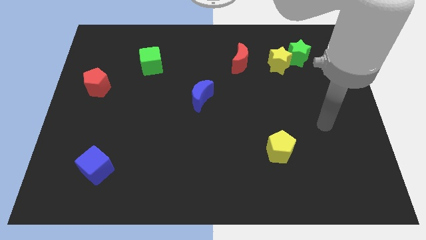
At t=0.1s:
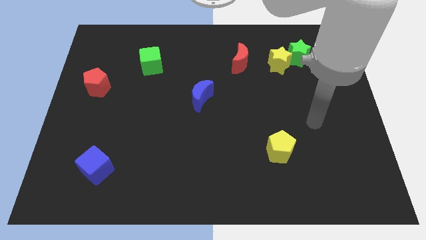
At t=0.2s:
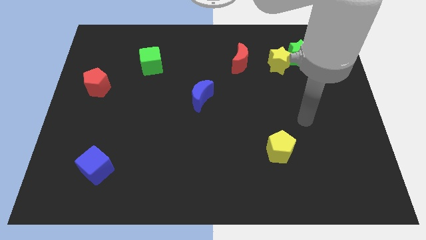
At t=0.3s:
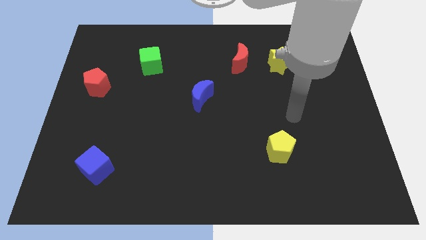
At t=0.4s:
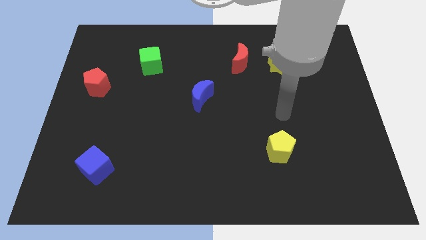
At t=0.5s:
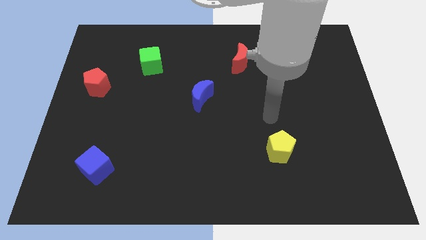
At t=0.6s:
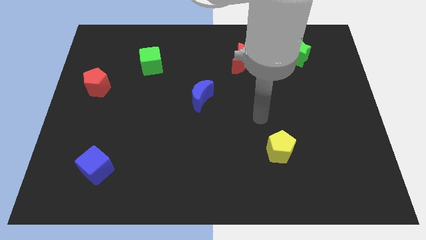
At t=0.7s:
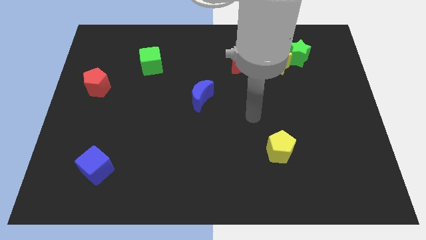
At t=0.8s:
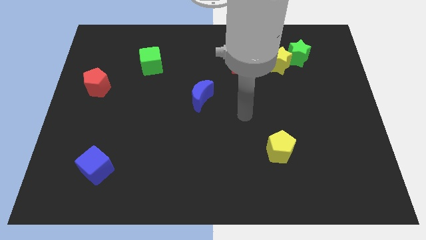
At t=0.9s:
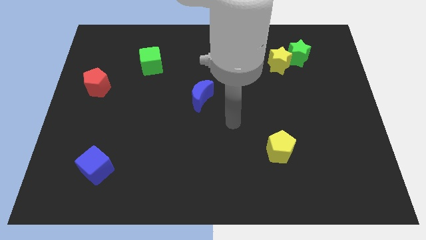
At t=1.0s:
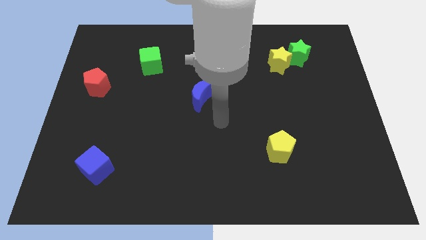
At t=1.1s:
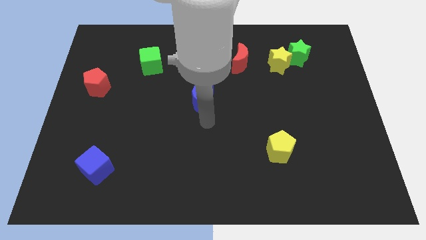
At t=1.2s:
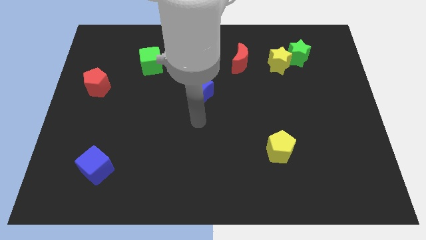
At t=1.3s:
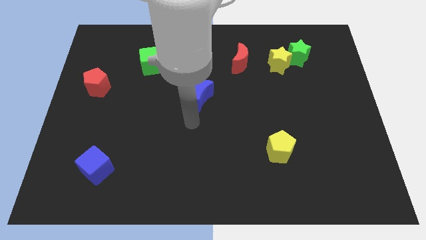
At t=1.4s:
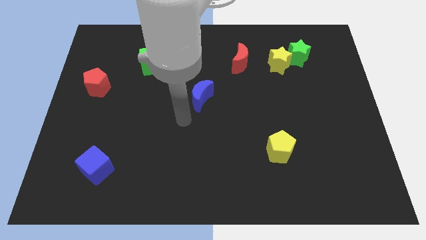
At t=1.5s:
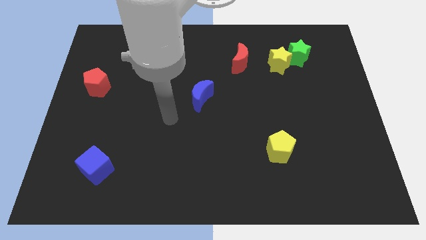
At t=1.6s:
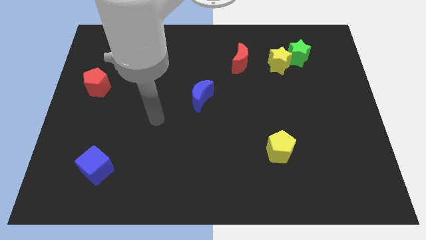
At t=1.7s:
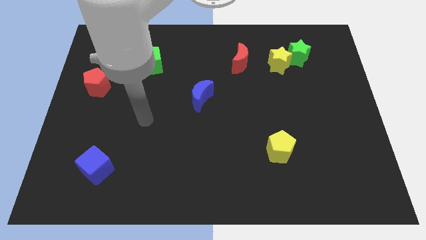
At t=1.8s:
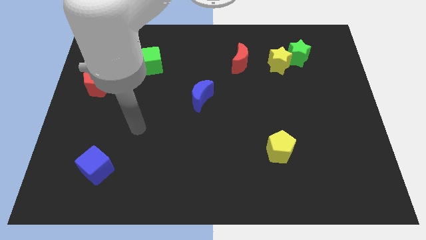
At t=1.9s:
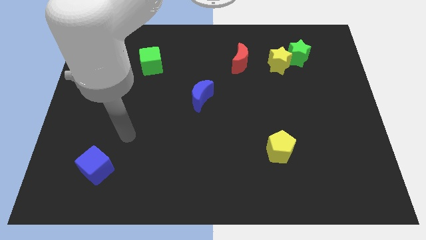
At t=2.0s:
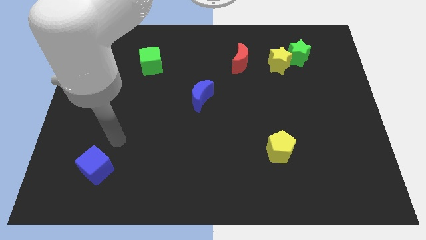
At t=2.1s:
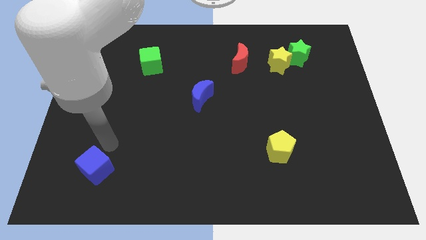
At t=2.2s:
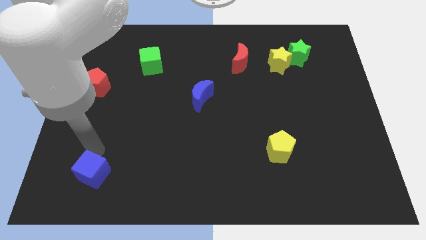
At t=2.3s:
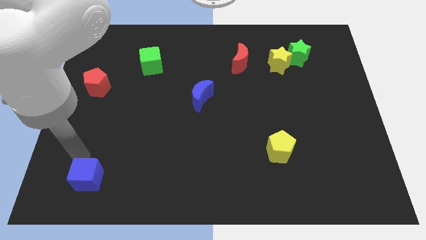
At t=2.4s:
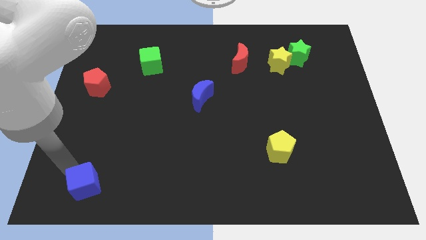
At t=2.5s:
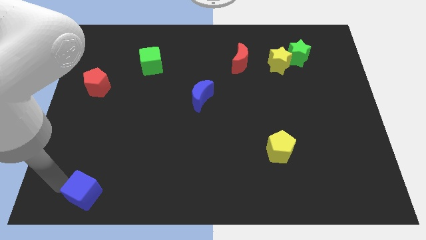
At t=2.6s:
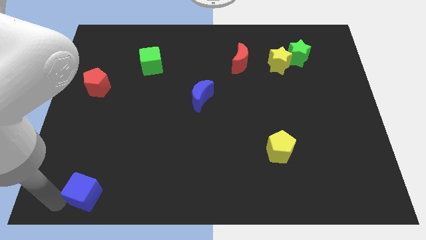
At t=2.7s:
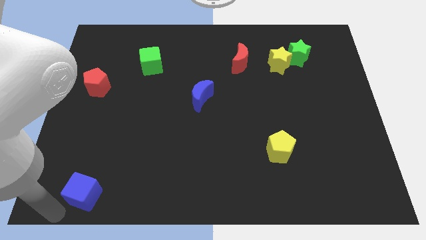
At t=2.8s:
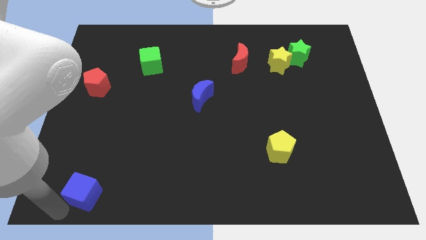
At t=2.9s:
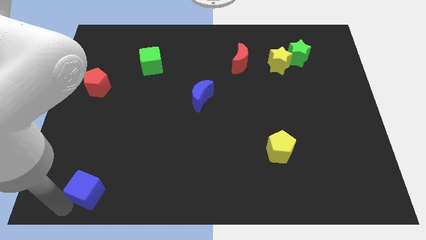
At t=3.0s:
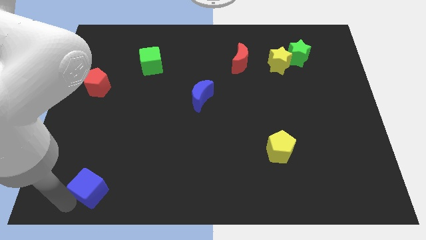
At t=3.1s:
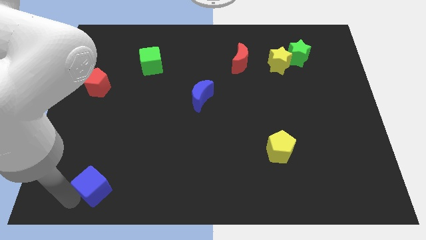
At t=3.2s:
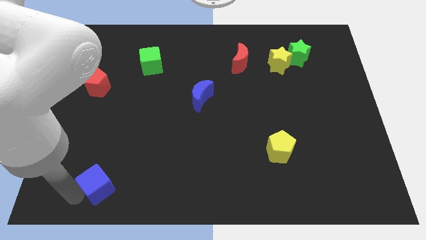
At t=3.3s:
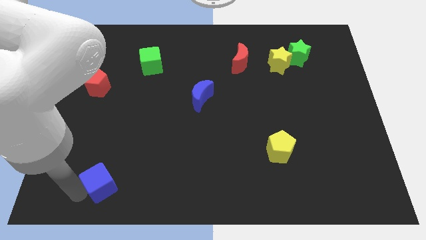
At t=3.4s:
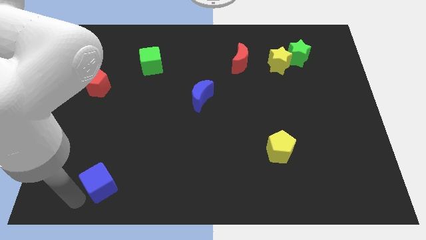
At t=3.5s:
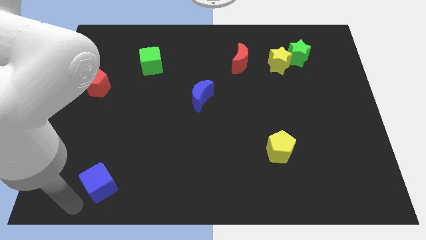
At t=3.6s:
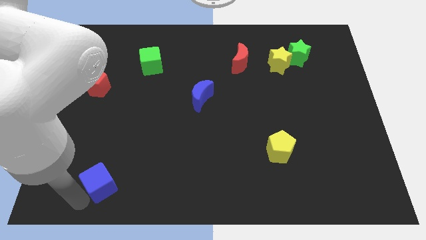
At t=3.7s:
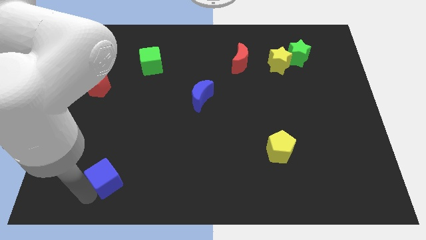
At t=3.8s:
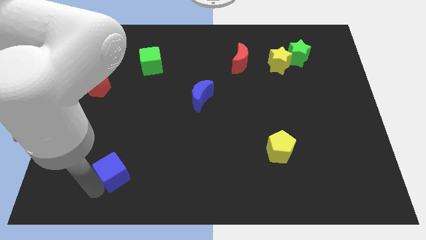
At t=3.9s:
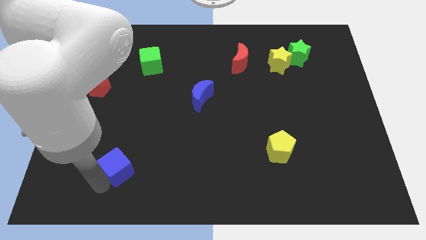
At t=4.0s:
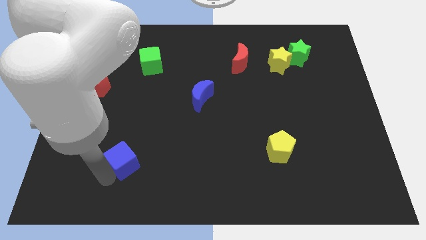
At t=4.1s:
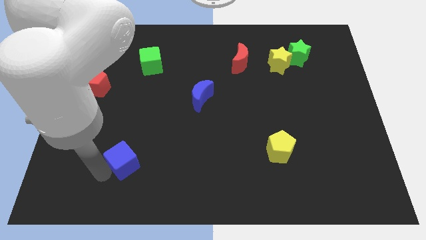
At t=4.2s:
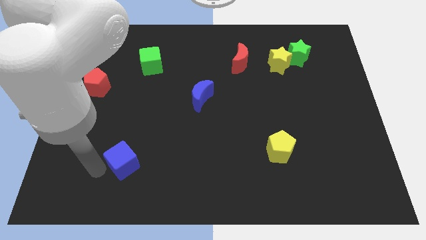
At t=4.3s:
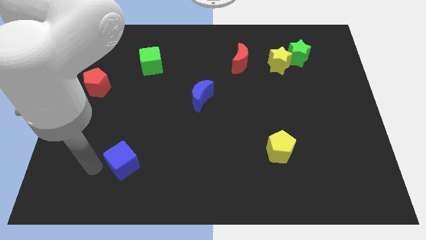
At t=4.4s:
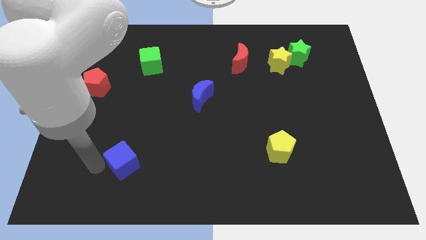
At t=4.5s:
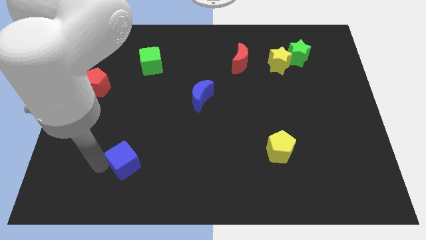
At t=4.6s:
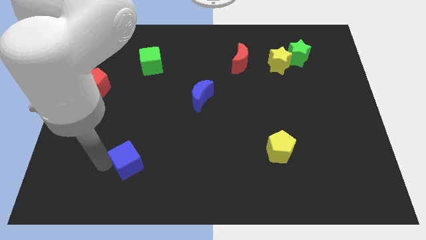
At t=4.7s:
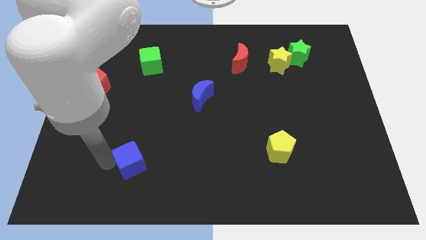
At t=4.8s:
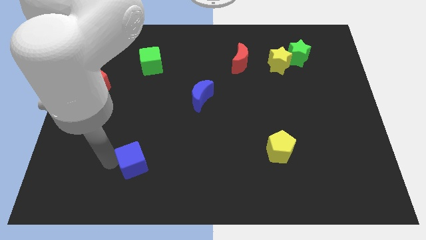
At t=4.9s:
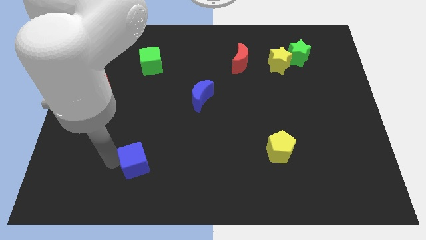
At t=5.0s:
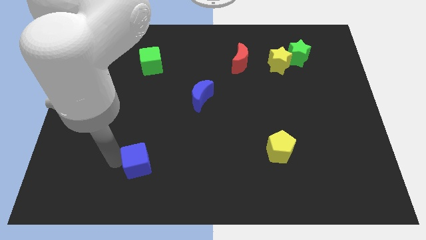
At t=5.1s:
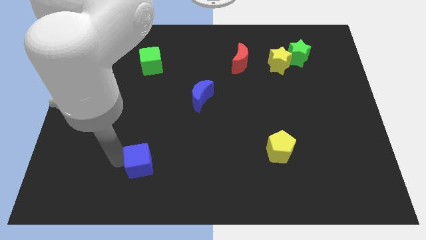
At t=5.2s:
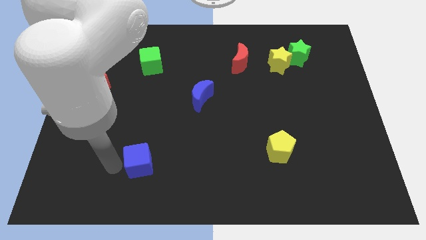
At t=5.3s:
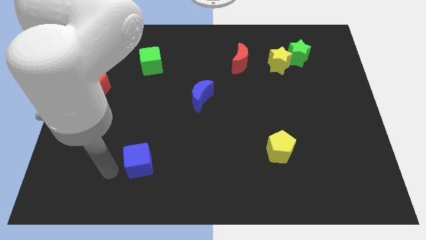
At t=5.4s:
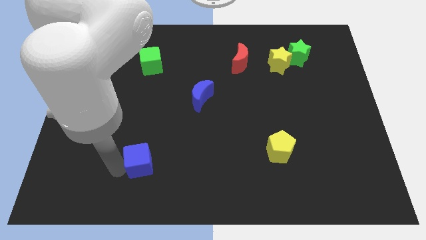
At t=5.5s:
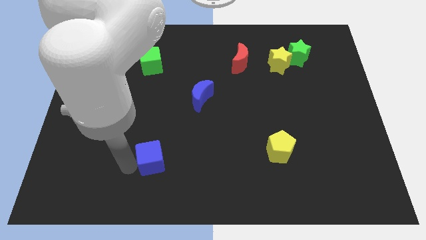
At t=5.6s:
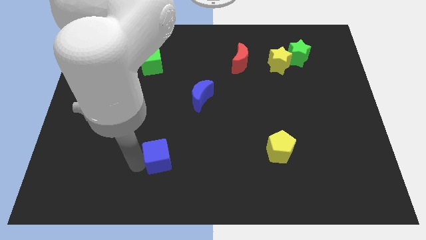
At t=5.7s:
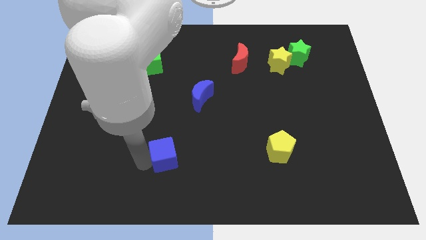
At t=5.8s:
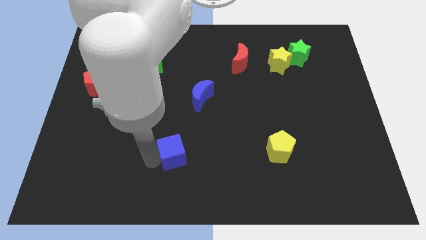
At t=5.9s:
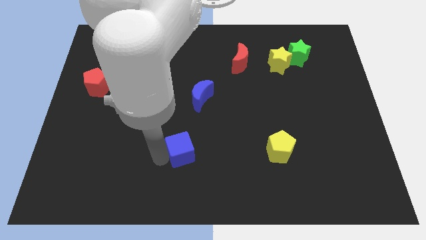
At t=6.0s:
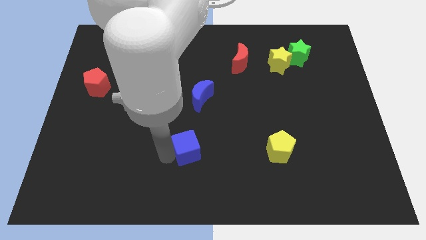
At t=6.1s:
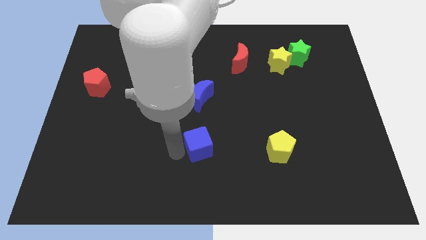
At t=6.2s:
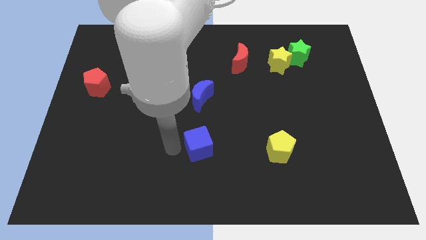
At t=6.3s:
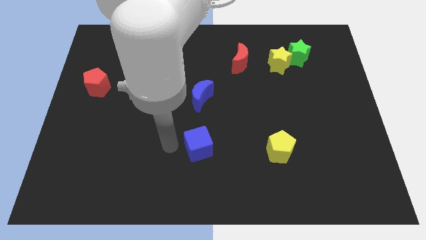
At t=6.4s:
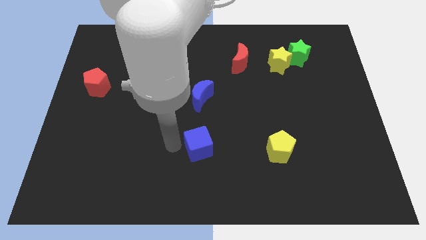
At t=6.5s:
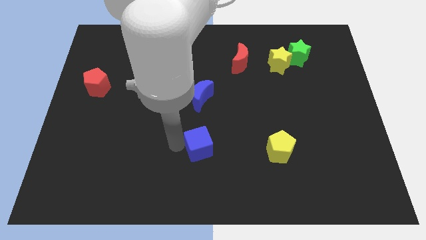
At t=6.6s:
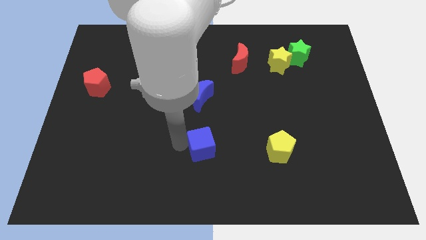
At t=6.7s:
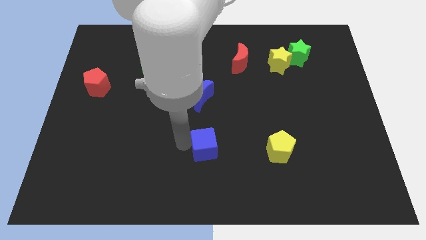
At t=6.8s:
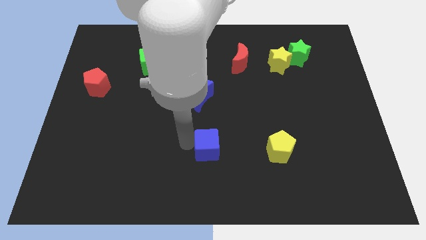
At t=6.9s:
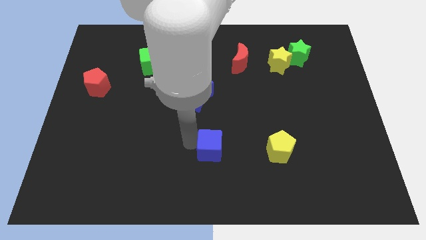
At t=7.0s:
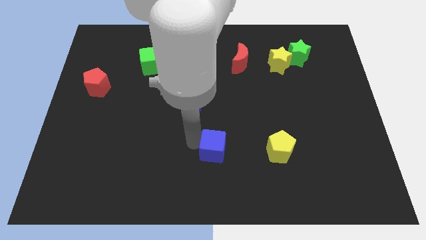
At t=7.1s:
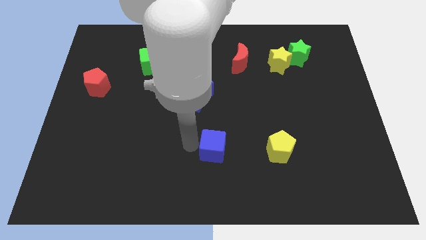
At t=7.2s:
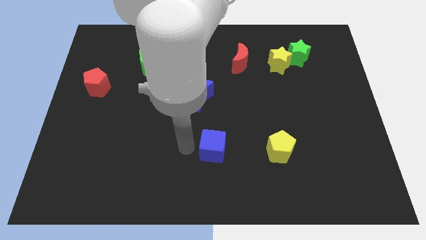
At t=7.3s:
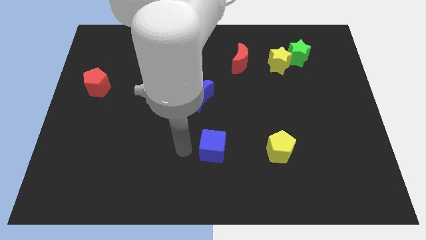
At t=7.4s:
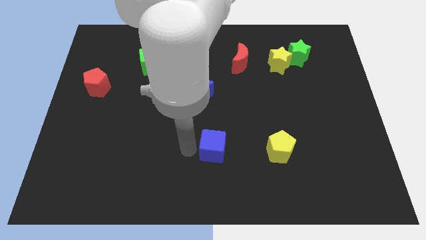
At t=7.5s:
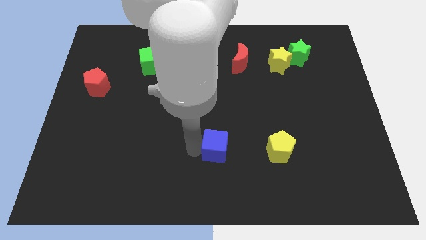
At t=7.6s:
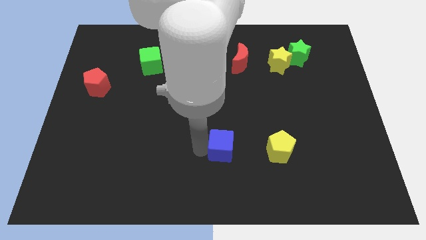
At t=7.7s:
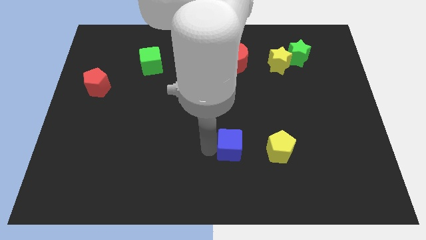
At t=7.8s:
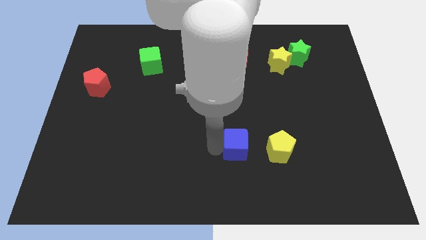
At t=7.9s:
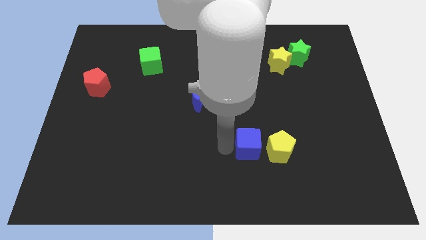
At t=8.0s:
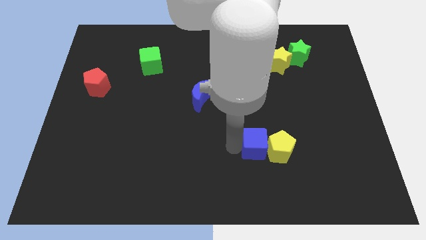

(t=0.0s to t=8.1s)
move the blue cube close to the yellow pentagon
